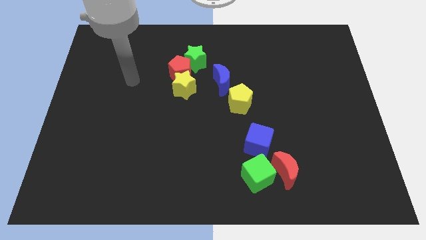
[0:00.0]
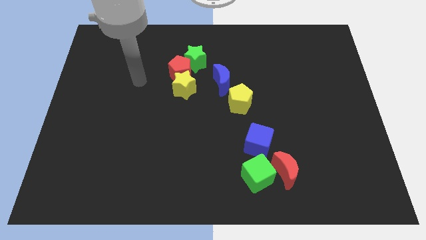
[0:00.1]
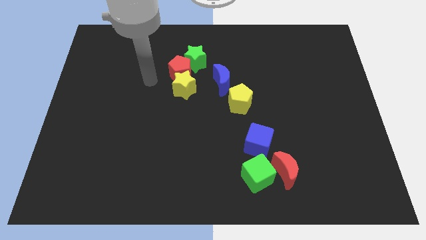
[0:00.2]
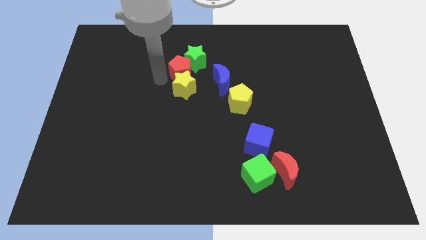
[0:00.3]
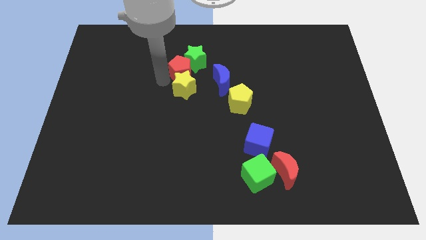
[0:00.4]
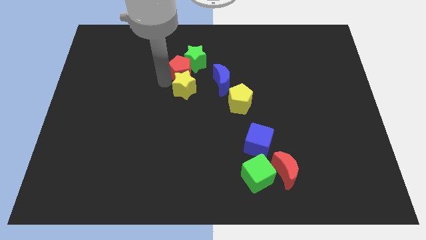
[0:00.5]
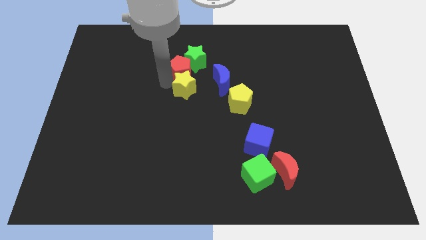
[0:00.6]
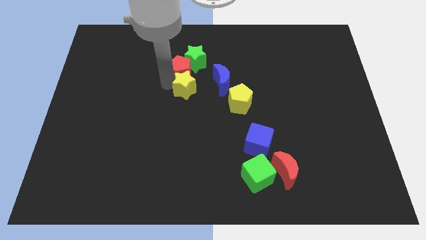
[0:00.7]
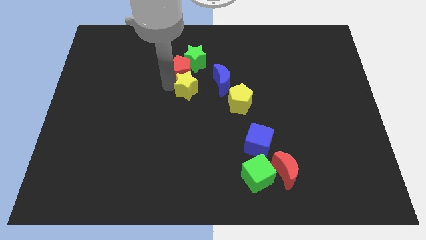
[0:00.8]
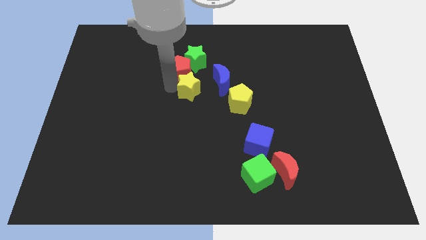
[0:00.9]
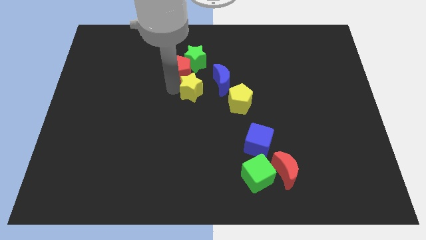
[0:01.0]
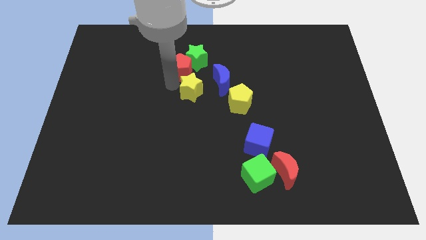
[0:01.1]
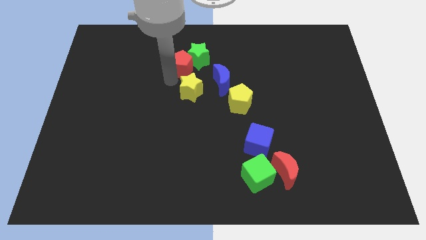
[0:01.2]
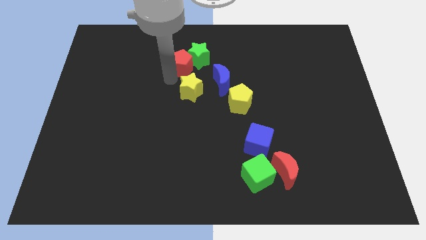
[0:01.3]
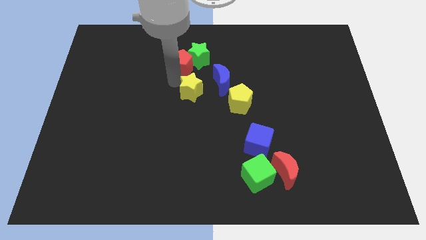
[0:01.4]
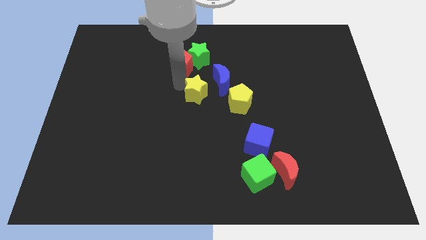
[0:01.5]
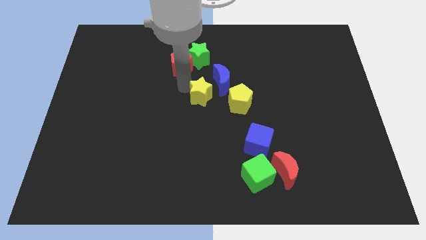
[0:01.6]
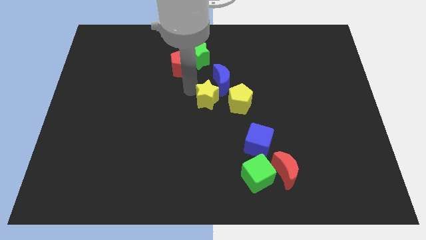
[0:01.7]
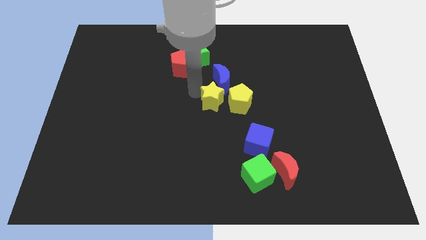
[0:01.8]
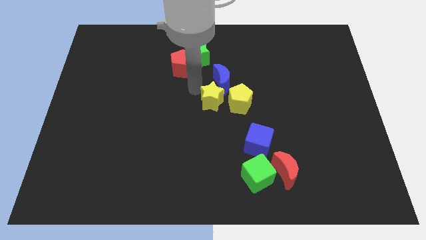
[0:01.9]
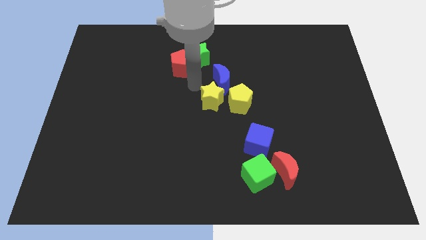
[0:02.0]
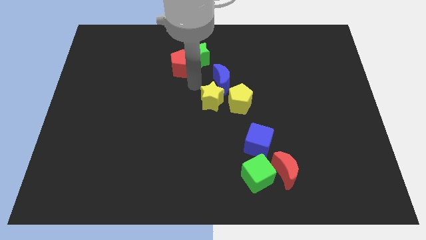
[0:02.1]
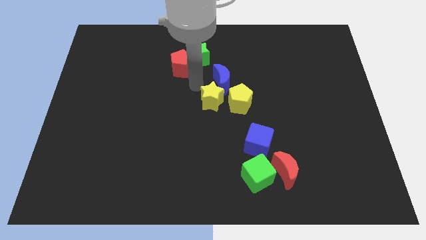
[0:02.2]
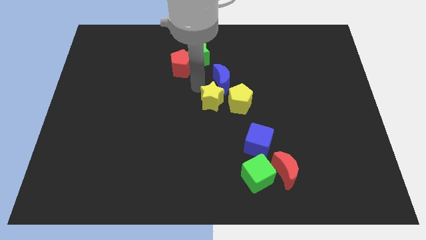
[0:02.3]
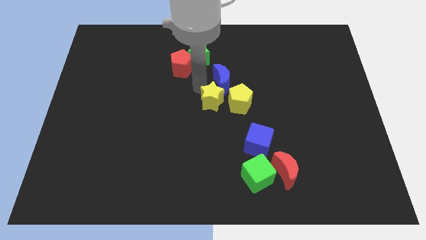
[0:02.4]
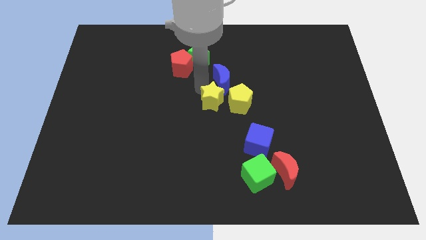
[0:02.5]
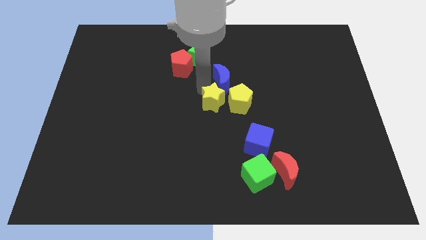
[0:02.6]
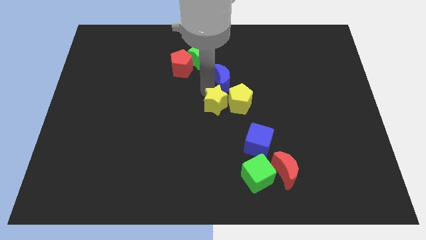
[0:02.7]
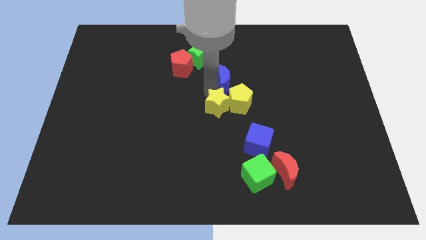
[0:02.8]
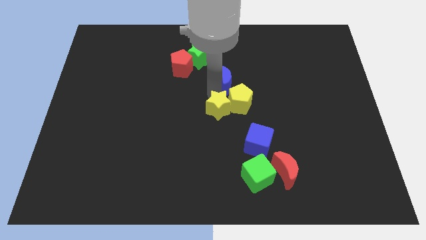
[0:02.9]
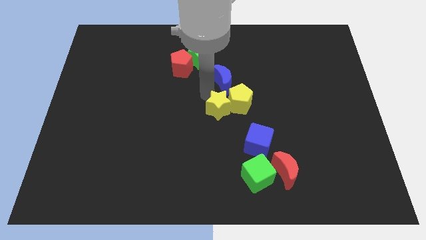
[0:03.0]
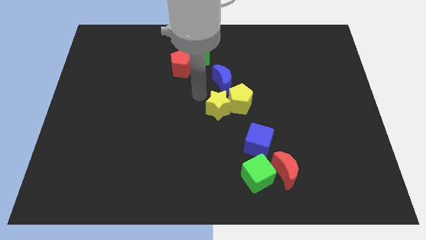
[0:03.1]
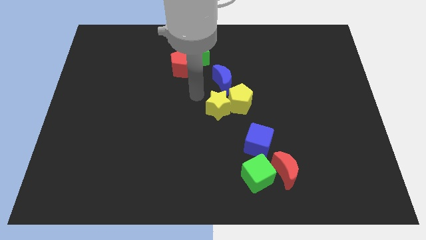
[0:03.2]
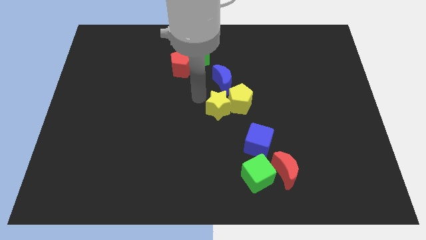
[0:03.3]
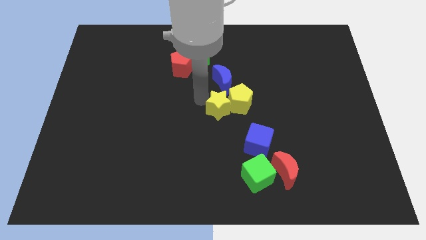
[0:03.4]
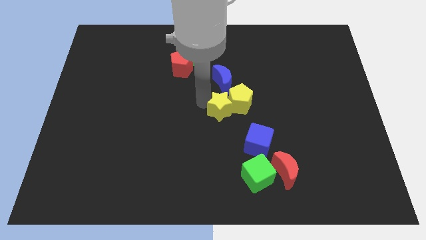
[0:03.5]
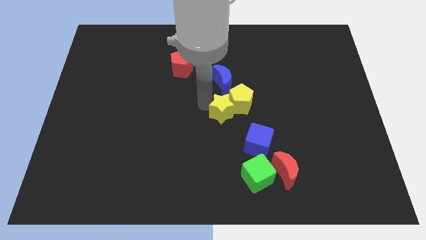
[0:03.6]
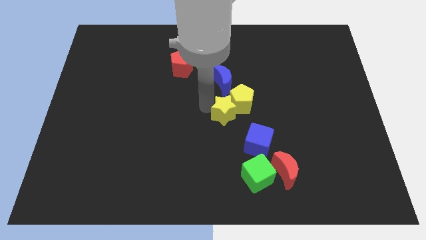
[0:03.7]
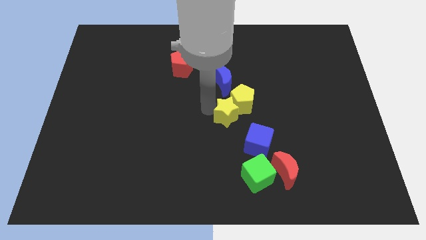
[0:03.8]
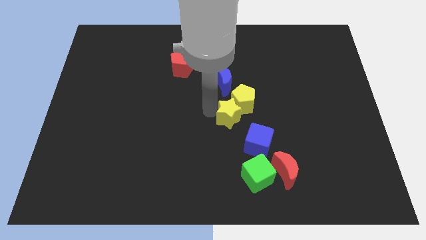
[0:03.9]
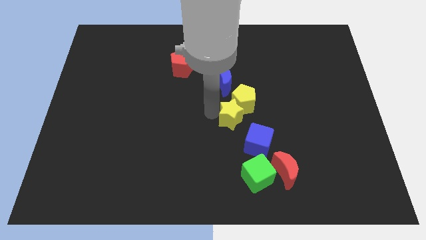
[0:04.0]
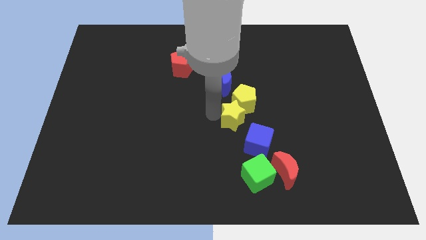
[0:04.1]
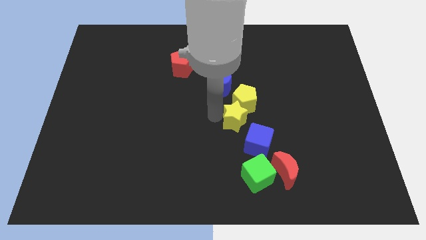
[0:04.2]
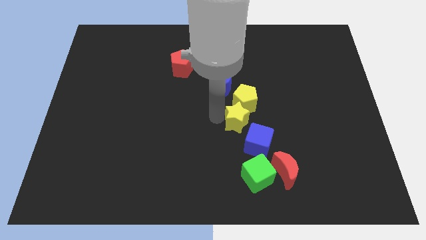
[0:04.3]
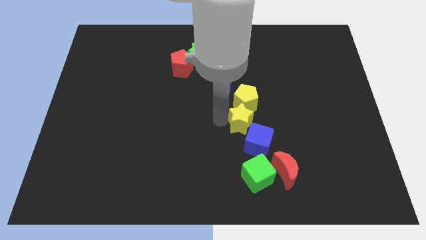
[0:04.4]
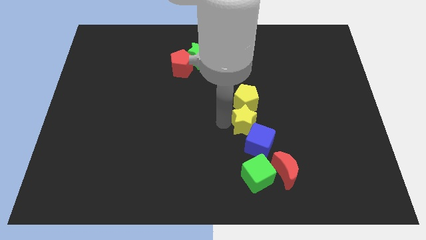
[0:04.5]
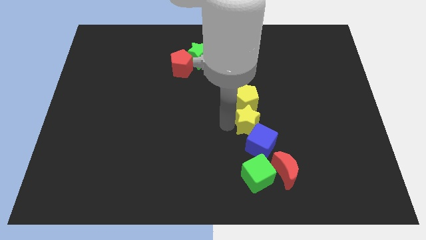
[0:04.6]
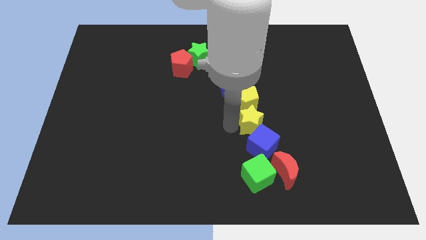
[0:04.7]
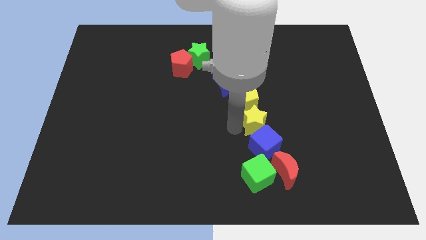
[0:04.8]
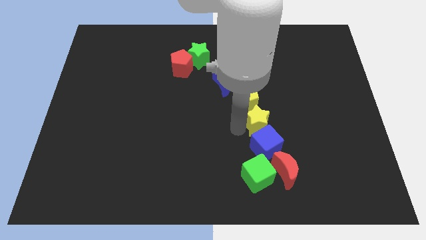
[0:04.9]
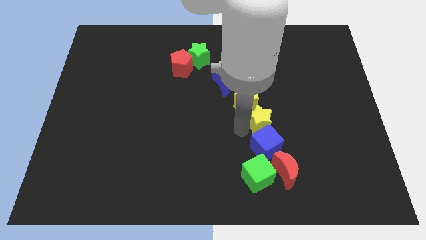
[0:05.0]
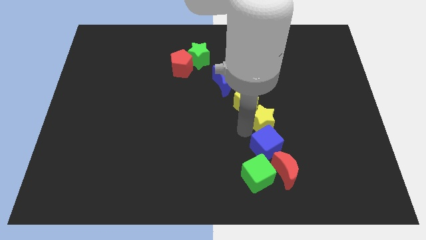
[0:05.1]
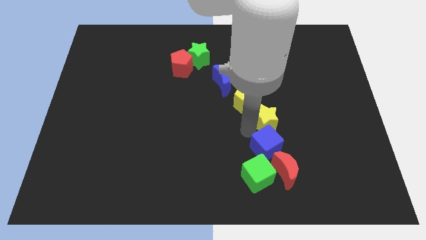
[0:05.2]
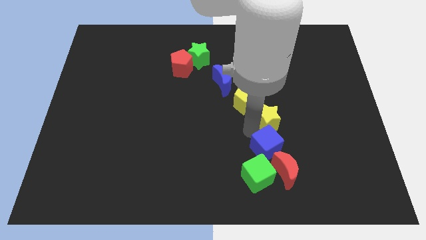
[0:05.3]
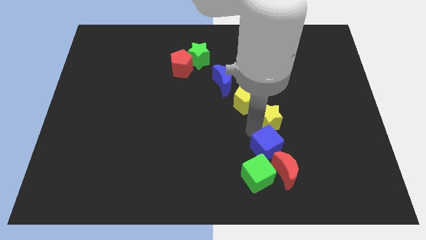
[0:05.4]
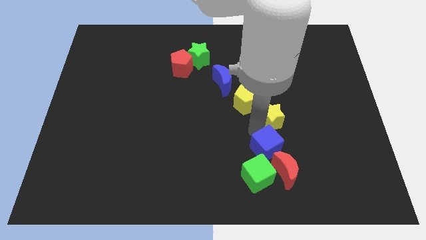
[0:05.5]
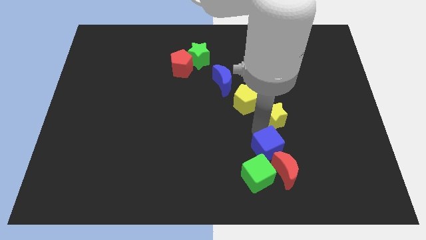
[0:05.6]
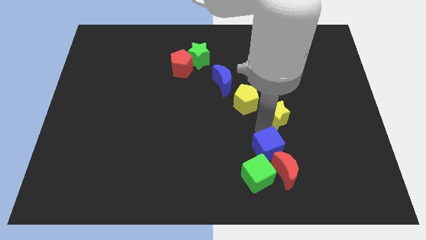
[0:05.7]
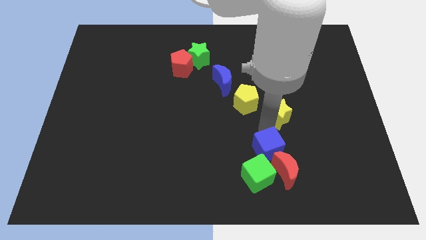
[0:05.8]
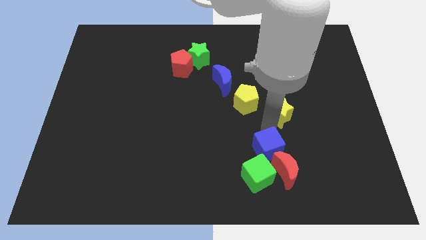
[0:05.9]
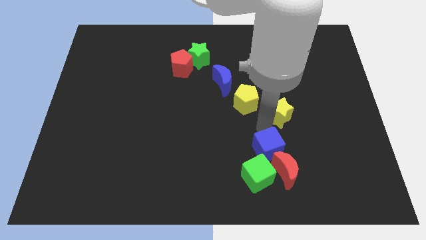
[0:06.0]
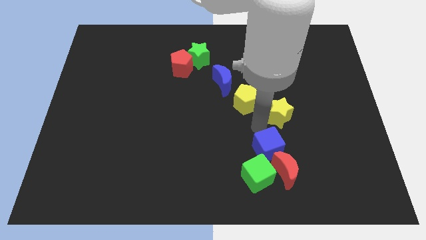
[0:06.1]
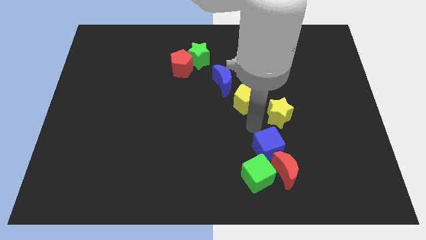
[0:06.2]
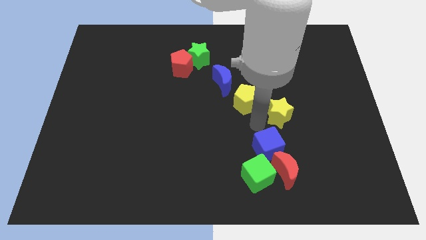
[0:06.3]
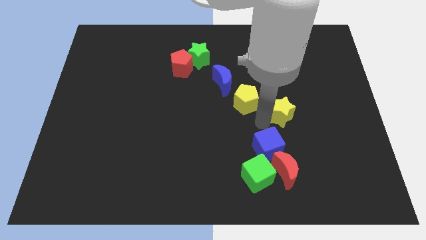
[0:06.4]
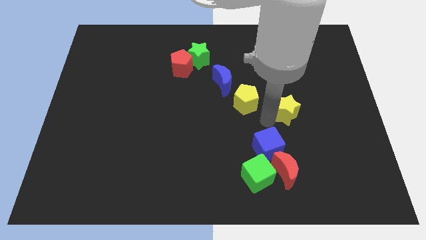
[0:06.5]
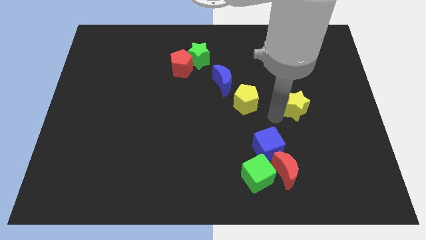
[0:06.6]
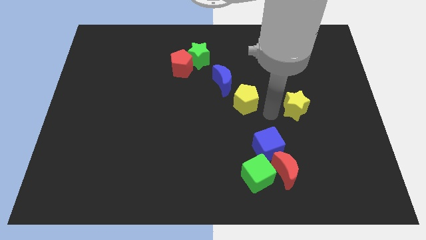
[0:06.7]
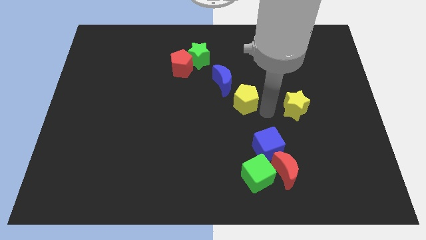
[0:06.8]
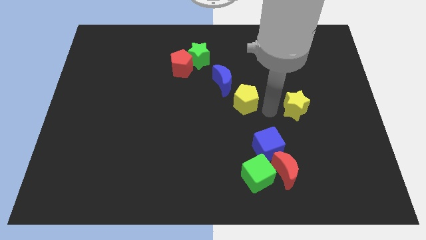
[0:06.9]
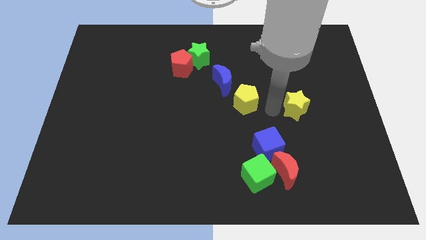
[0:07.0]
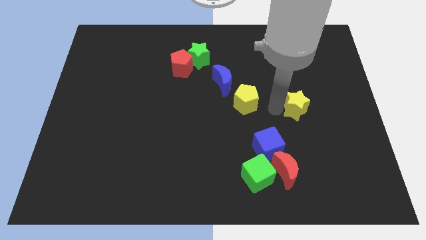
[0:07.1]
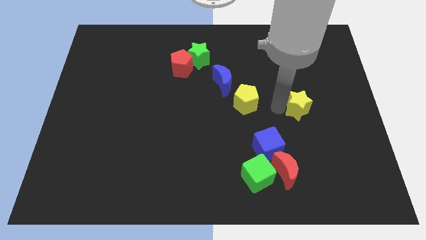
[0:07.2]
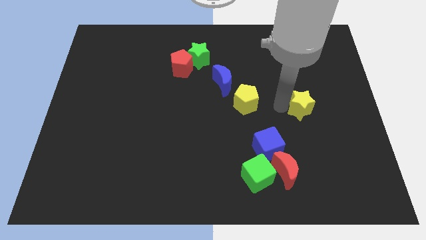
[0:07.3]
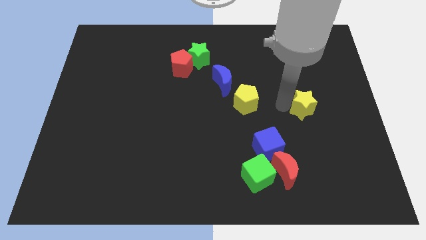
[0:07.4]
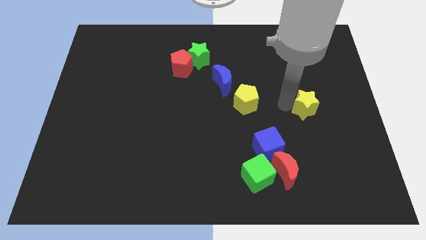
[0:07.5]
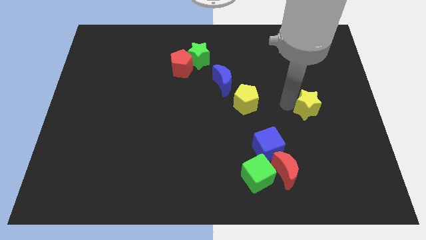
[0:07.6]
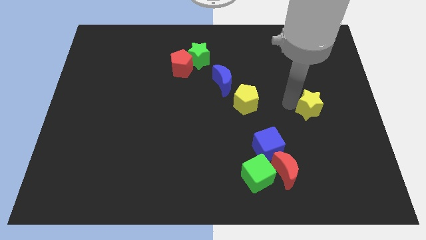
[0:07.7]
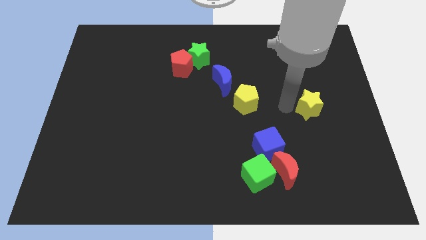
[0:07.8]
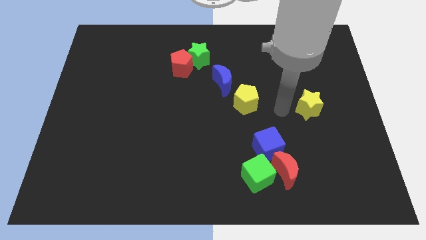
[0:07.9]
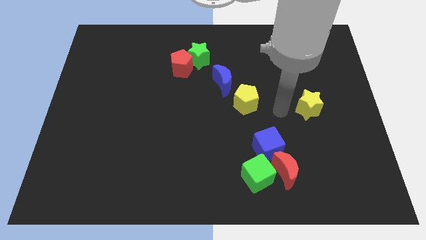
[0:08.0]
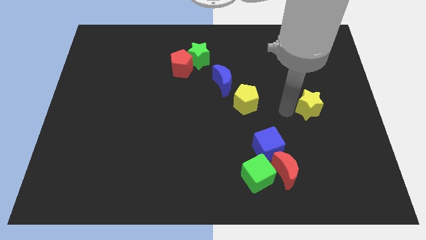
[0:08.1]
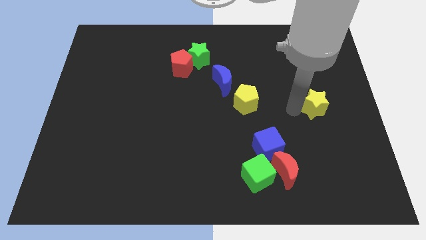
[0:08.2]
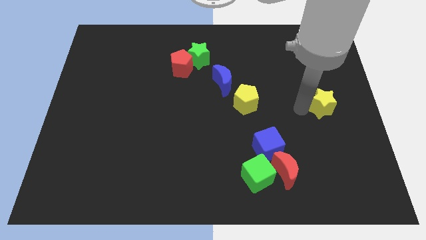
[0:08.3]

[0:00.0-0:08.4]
push the yellow star to the right side
